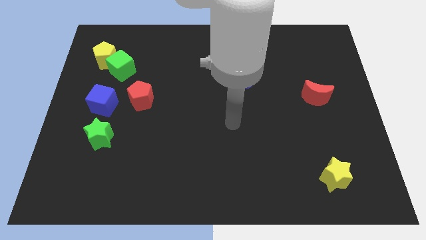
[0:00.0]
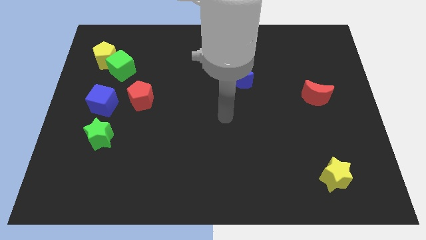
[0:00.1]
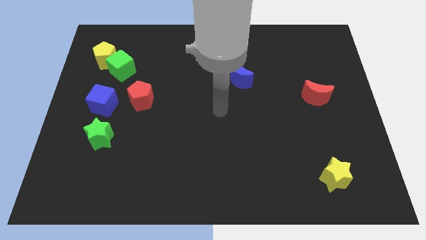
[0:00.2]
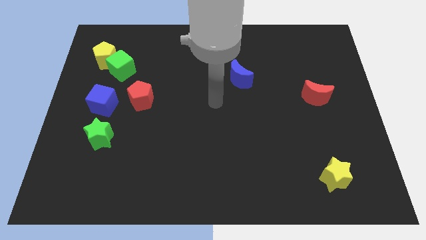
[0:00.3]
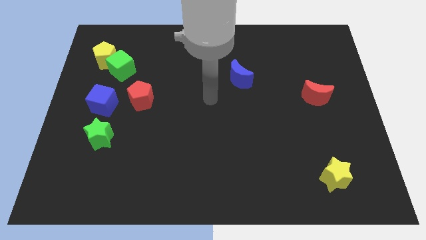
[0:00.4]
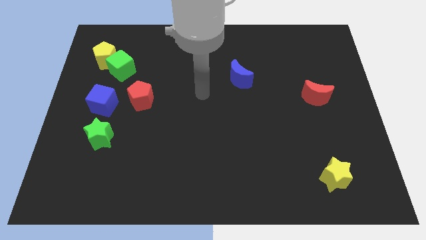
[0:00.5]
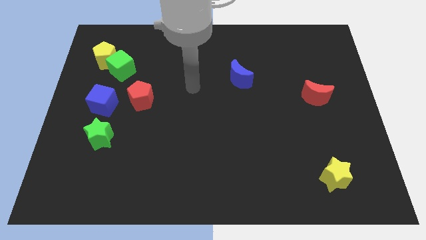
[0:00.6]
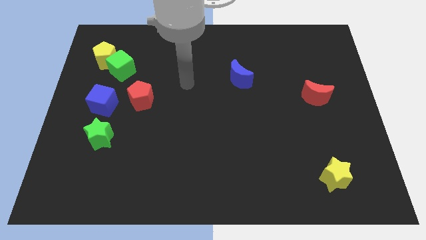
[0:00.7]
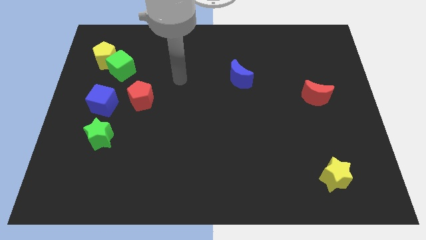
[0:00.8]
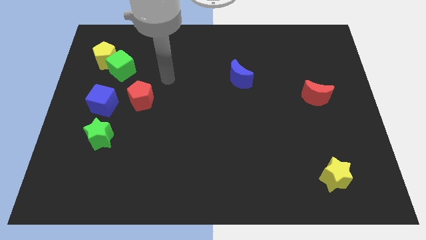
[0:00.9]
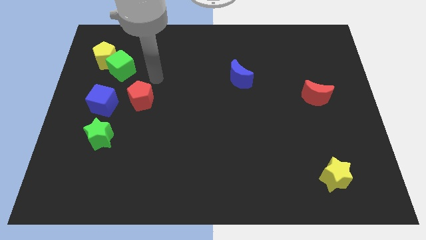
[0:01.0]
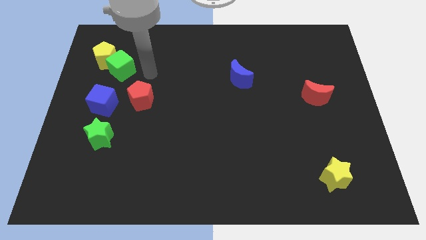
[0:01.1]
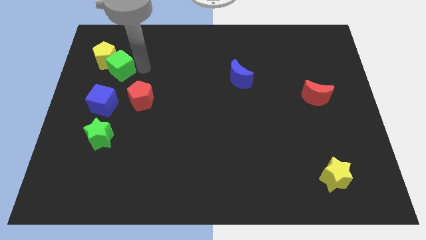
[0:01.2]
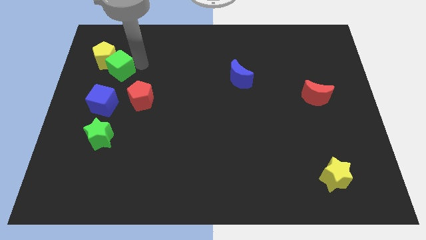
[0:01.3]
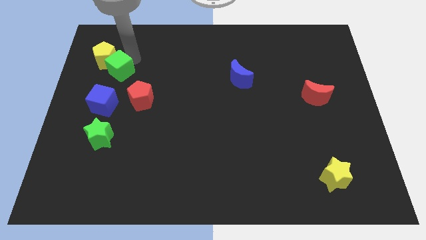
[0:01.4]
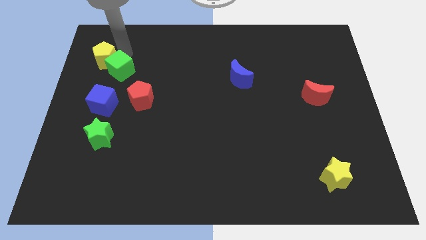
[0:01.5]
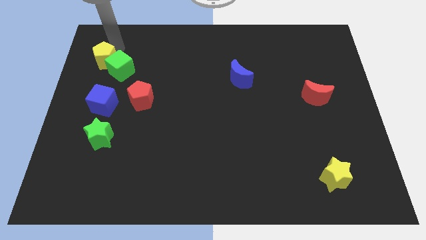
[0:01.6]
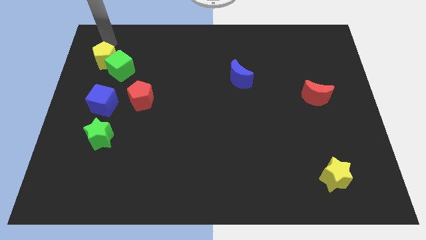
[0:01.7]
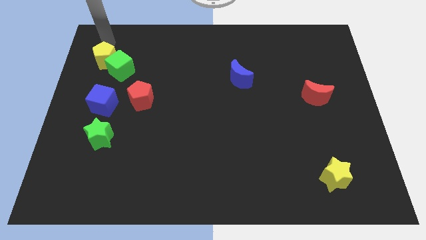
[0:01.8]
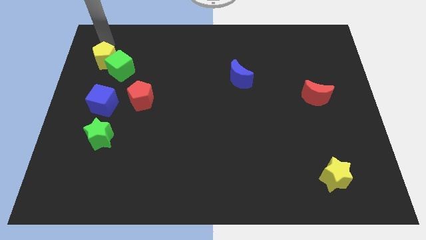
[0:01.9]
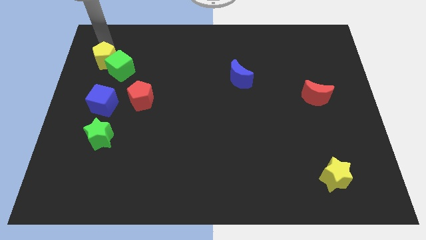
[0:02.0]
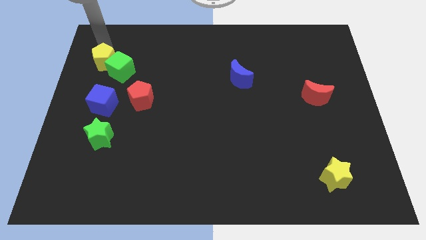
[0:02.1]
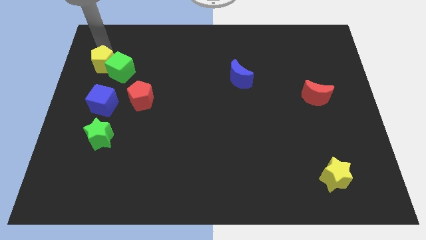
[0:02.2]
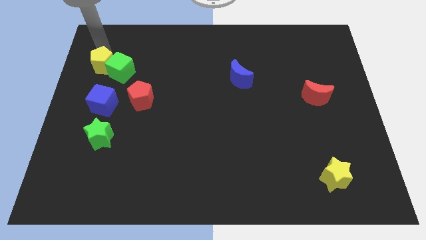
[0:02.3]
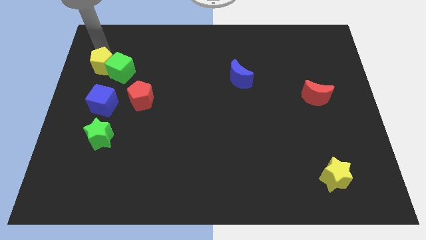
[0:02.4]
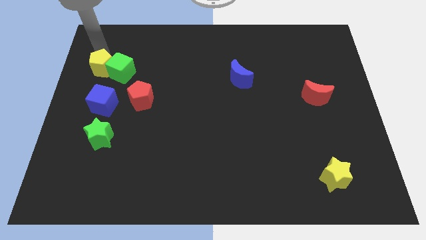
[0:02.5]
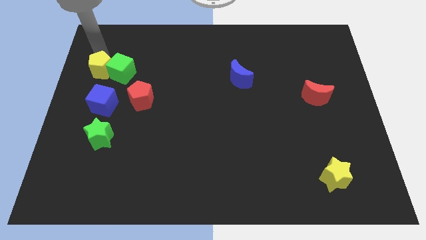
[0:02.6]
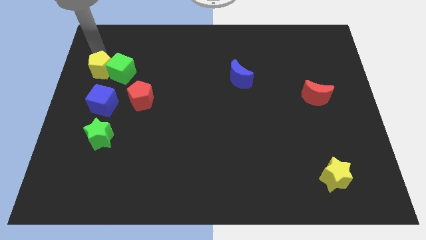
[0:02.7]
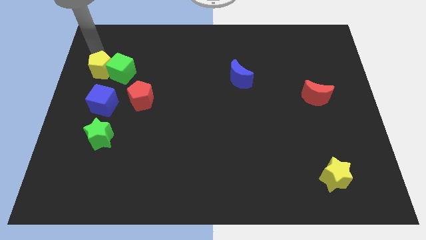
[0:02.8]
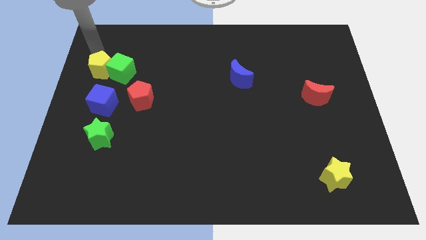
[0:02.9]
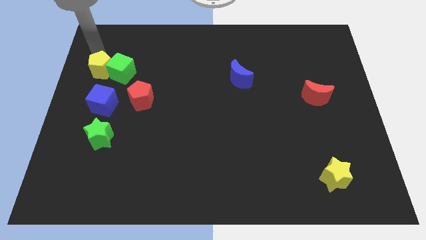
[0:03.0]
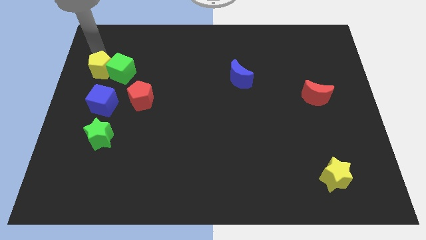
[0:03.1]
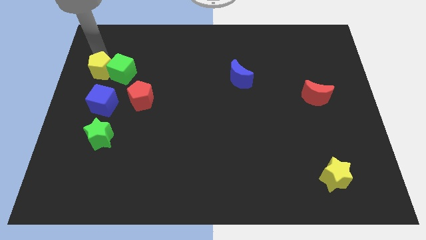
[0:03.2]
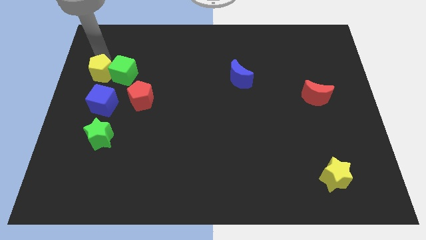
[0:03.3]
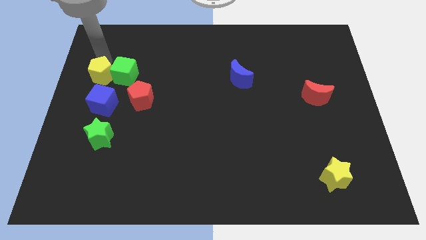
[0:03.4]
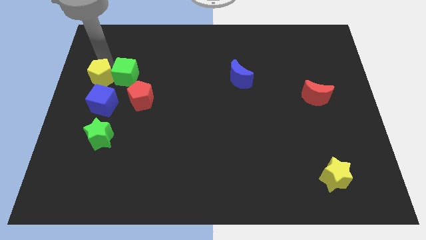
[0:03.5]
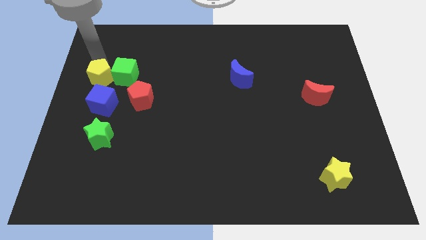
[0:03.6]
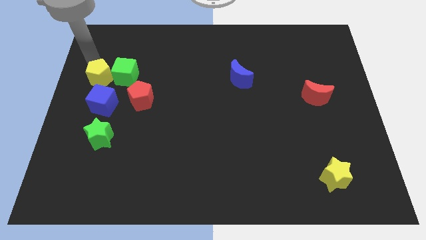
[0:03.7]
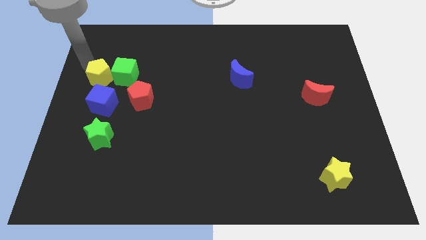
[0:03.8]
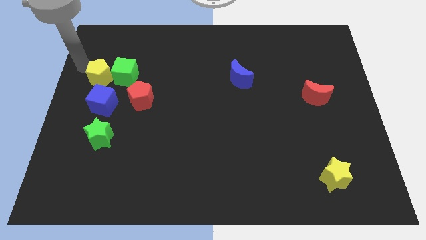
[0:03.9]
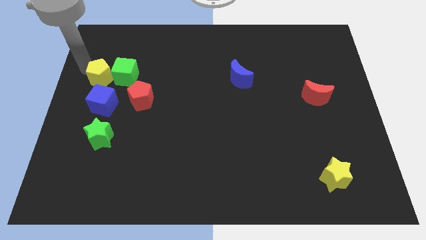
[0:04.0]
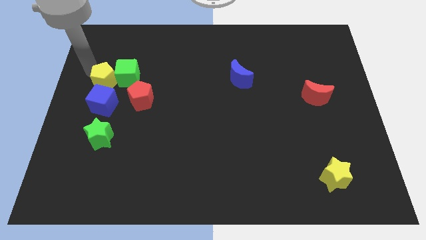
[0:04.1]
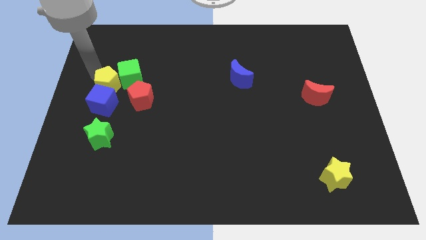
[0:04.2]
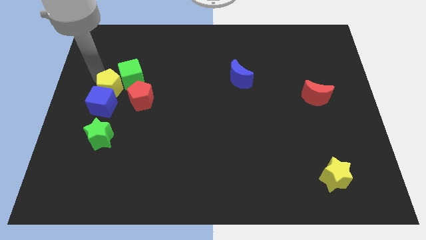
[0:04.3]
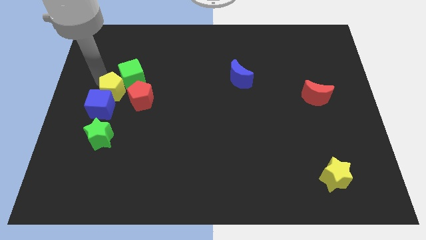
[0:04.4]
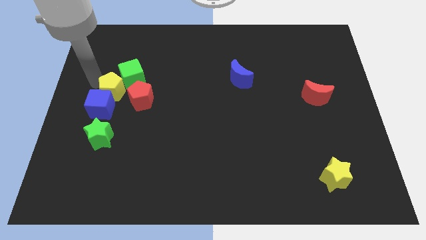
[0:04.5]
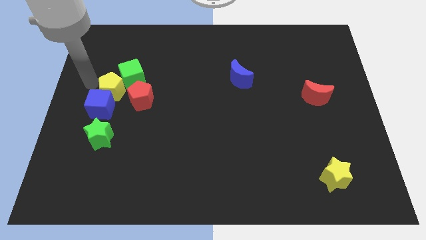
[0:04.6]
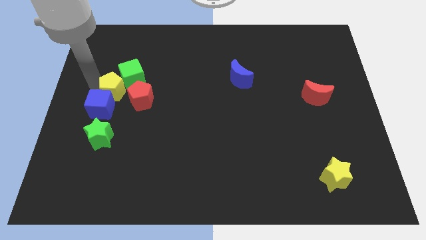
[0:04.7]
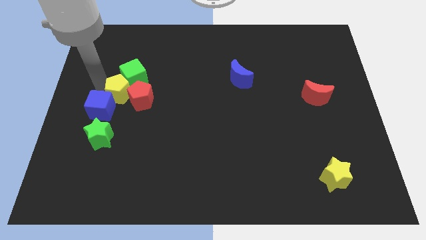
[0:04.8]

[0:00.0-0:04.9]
put the yellow pentagon to the red pentagon

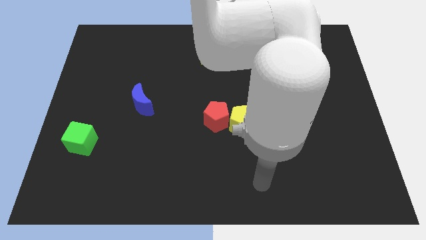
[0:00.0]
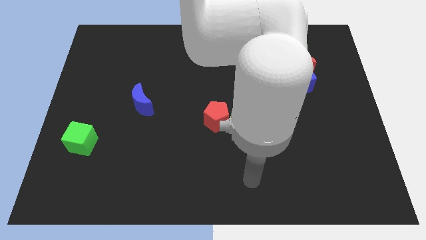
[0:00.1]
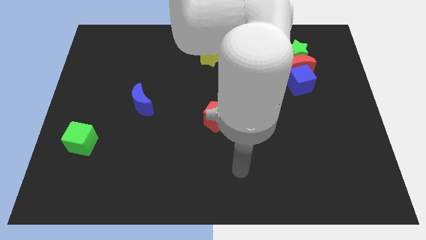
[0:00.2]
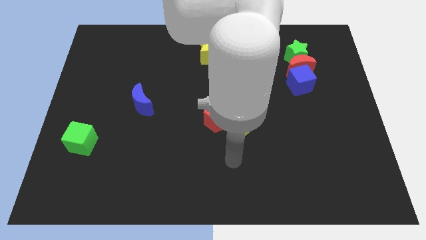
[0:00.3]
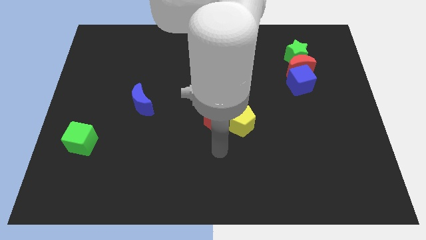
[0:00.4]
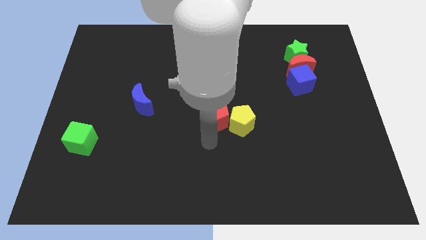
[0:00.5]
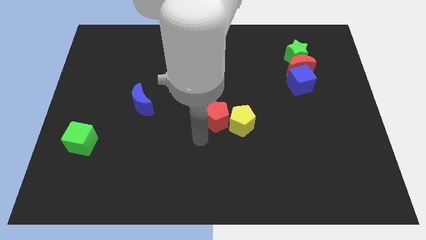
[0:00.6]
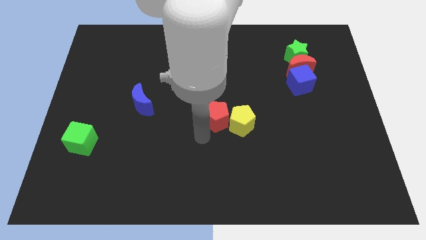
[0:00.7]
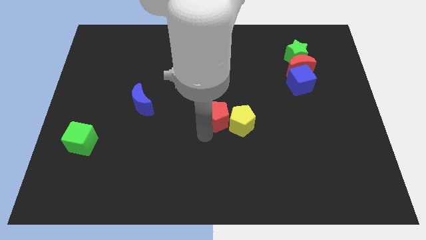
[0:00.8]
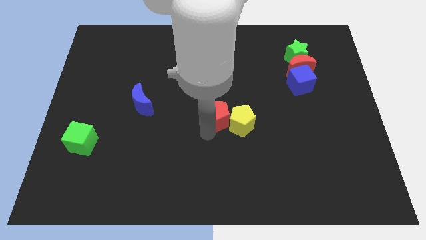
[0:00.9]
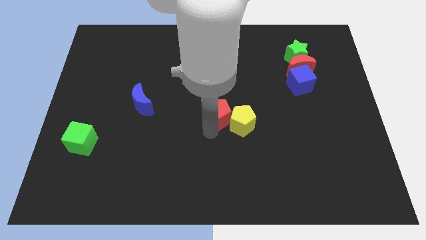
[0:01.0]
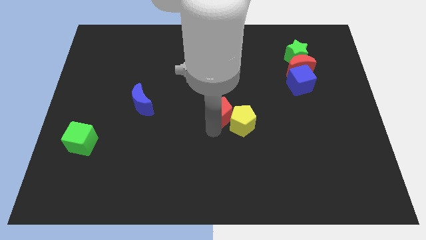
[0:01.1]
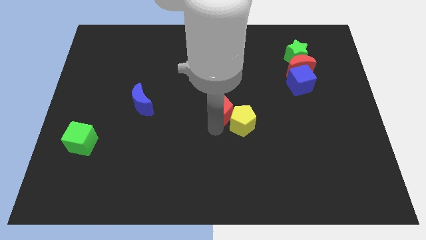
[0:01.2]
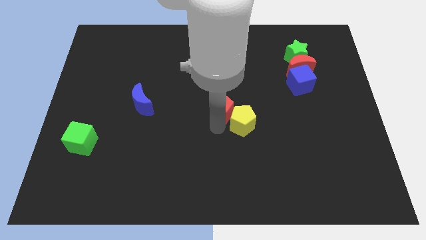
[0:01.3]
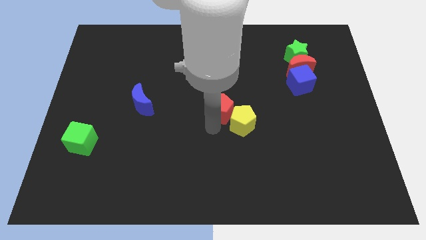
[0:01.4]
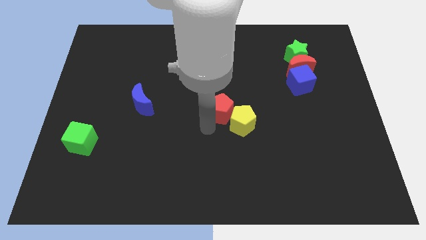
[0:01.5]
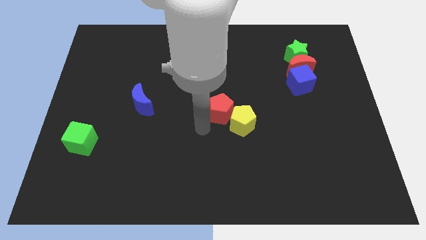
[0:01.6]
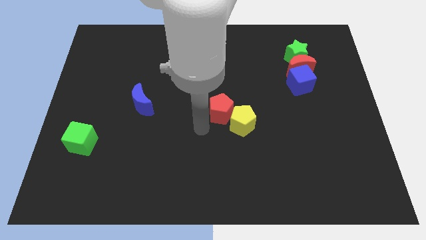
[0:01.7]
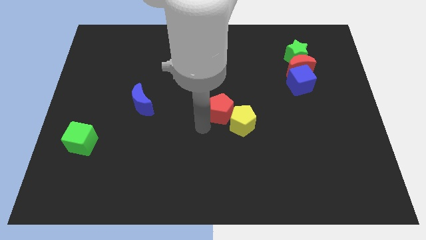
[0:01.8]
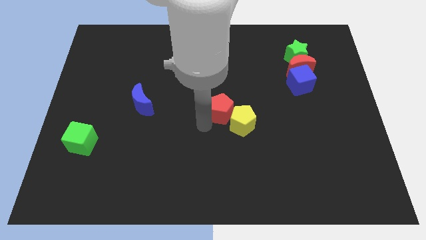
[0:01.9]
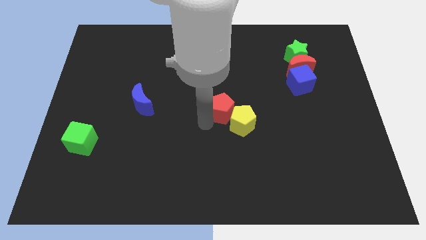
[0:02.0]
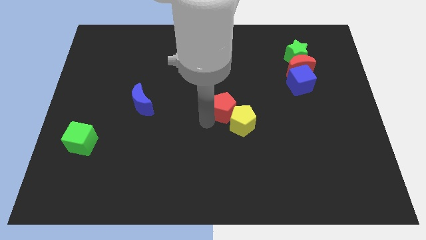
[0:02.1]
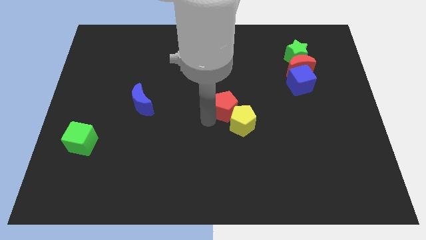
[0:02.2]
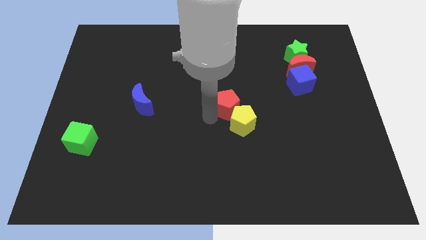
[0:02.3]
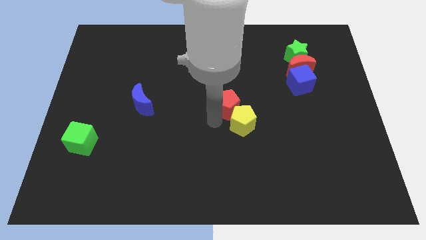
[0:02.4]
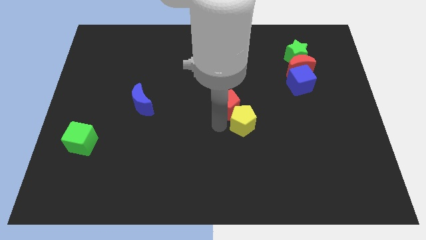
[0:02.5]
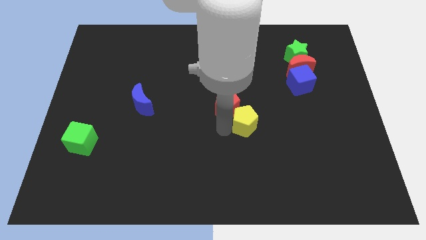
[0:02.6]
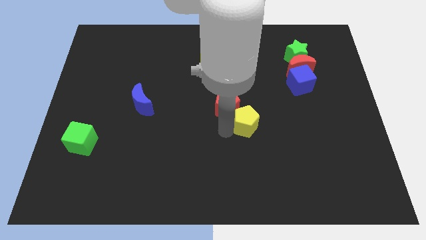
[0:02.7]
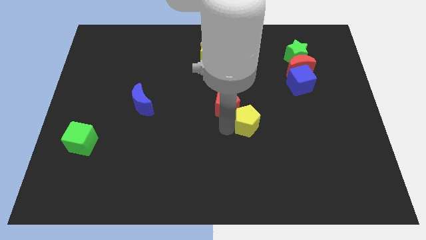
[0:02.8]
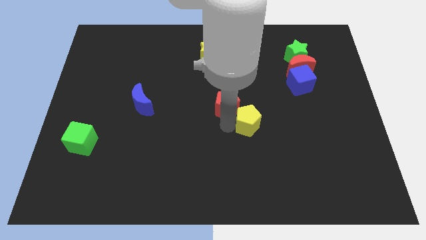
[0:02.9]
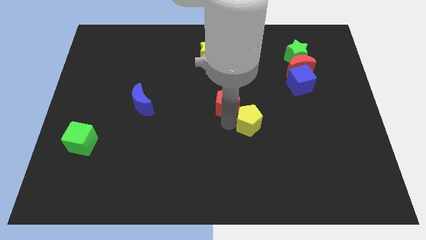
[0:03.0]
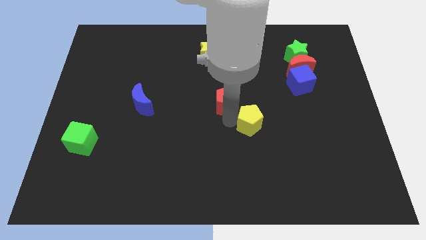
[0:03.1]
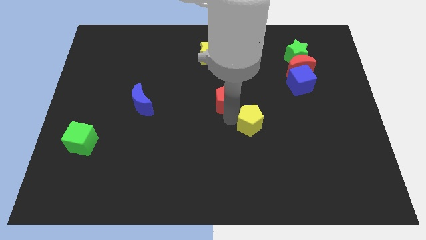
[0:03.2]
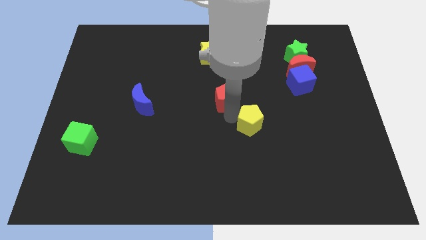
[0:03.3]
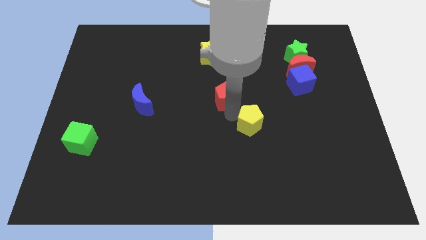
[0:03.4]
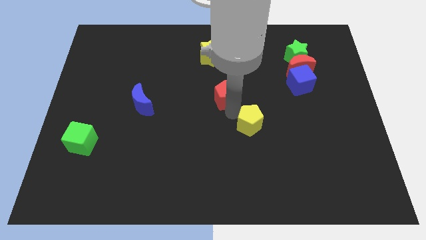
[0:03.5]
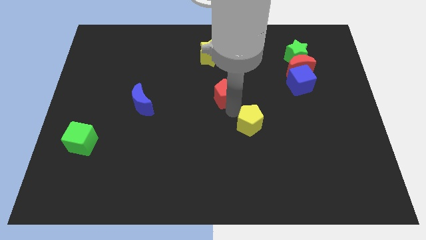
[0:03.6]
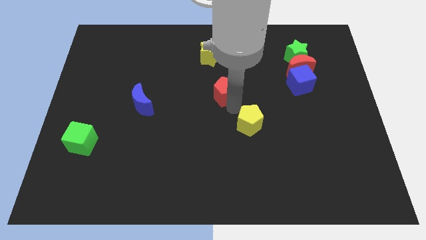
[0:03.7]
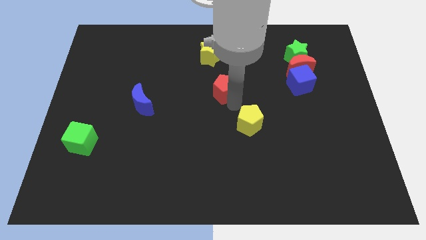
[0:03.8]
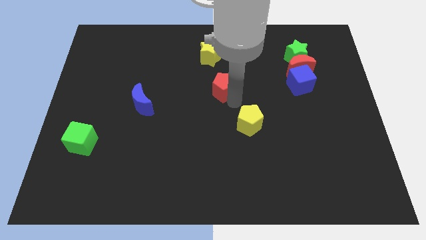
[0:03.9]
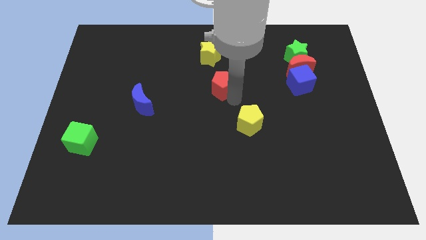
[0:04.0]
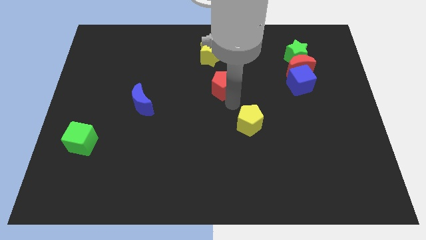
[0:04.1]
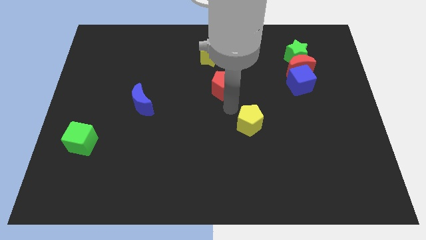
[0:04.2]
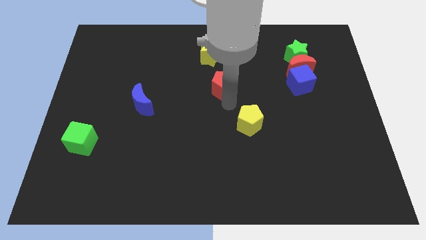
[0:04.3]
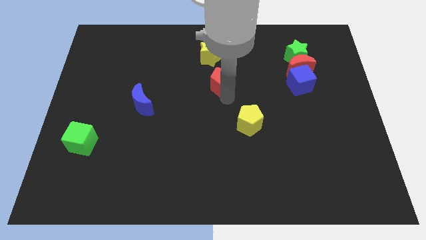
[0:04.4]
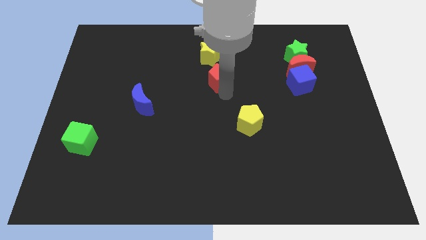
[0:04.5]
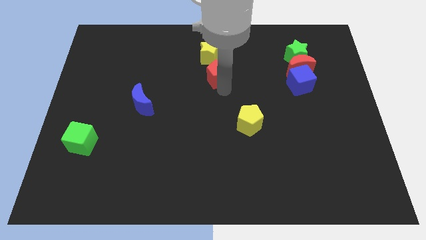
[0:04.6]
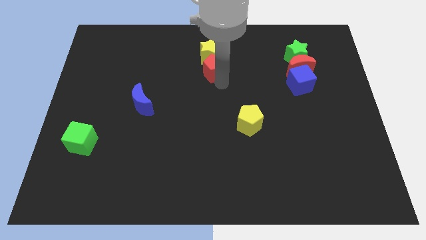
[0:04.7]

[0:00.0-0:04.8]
put the red pentagon close to the yellow star
